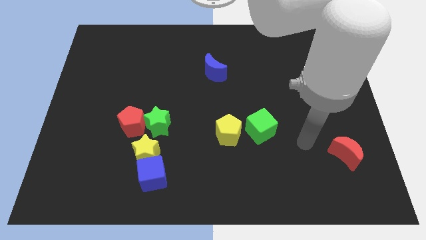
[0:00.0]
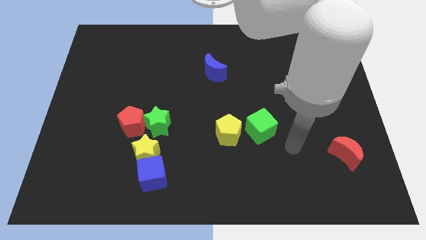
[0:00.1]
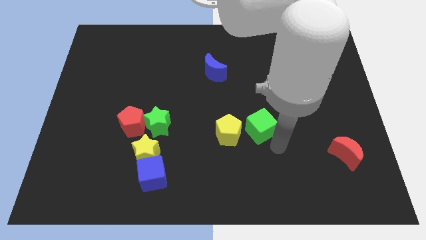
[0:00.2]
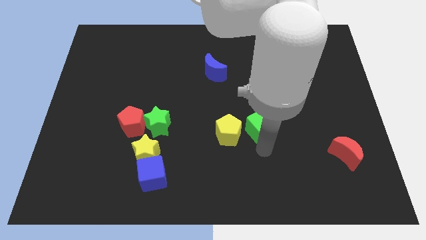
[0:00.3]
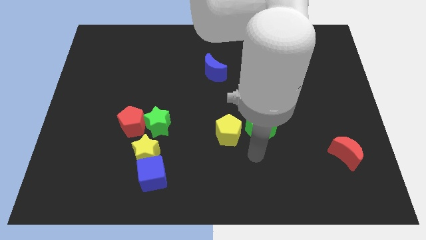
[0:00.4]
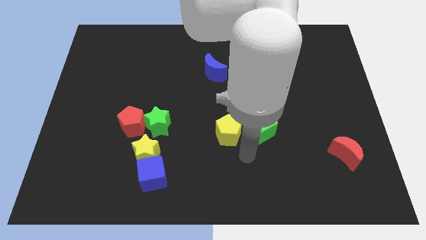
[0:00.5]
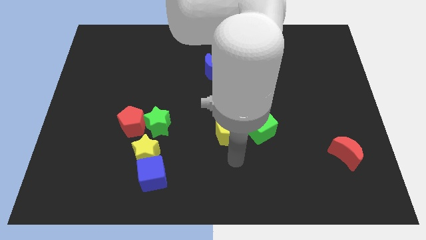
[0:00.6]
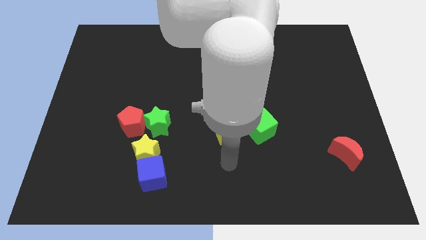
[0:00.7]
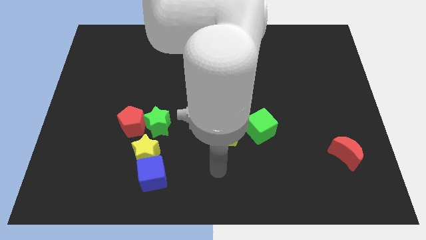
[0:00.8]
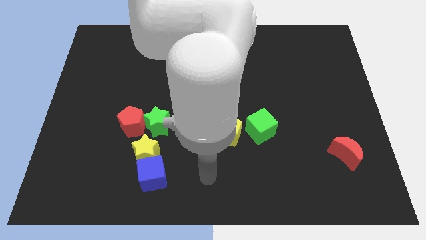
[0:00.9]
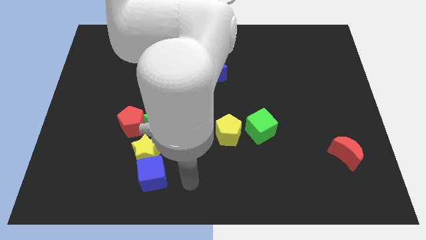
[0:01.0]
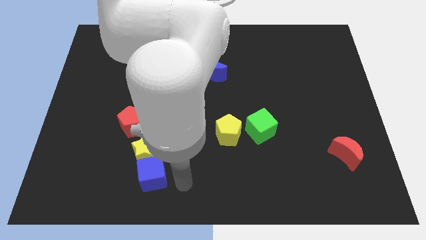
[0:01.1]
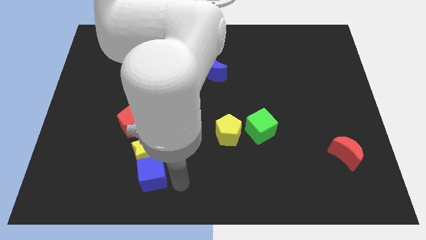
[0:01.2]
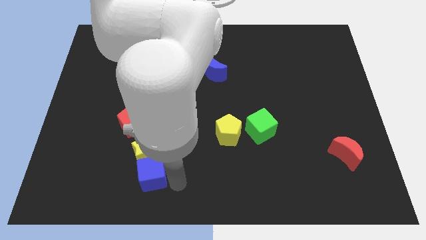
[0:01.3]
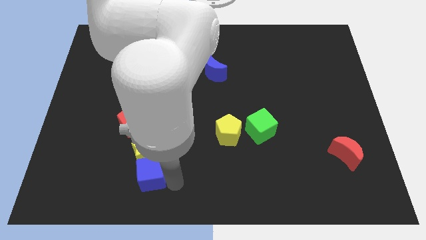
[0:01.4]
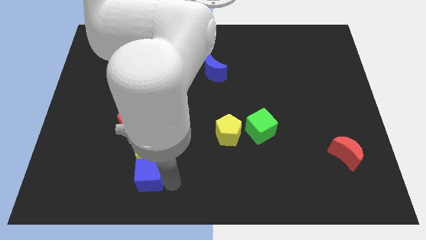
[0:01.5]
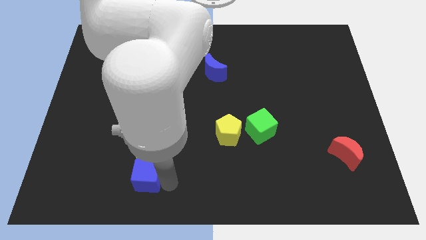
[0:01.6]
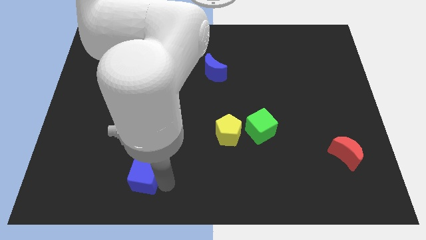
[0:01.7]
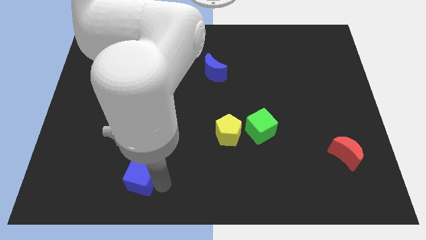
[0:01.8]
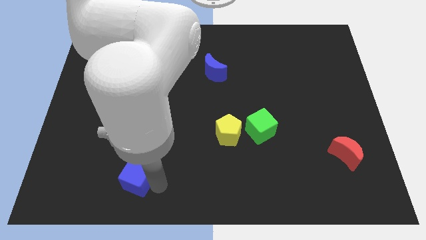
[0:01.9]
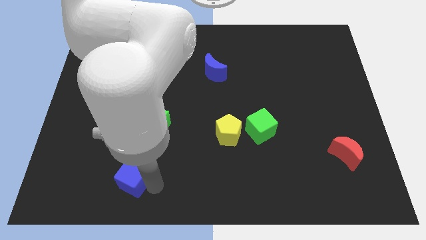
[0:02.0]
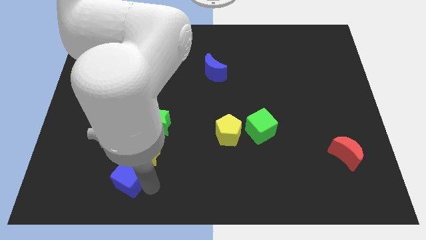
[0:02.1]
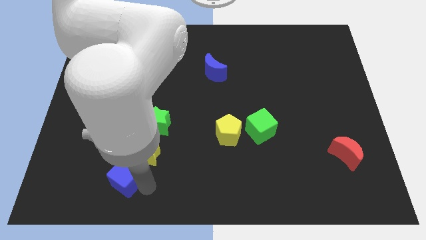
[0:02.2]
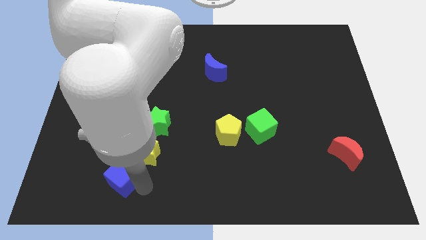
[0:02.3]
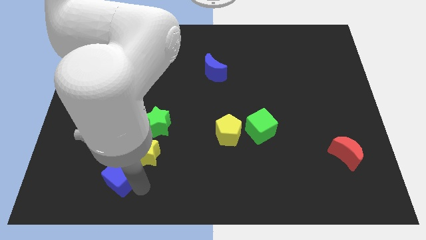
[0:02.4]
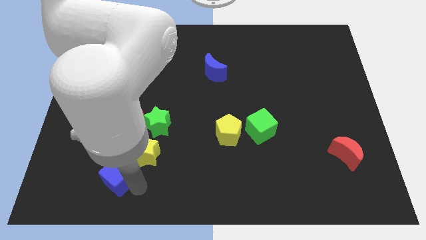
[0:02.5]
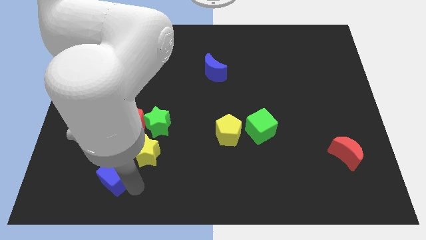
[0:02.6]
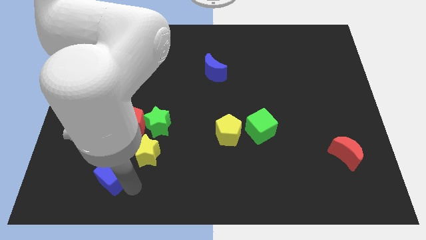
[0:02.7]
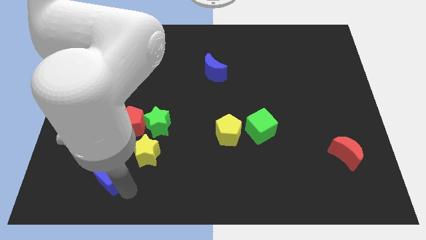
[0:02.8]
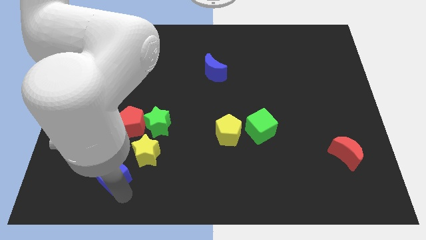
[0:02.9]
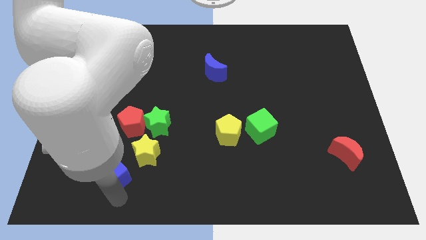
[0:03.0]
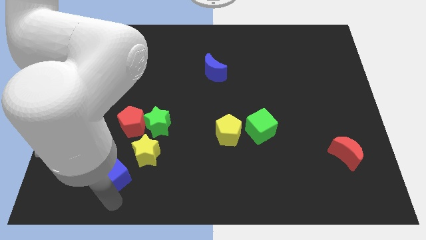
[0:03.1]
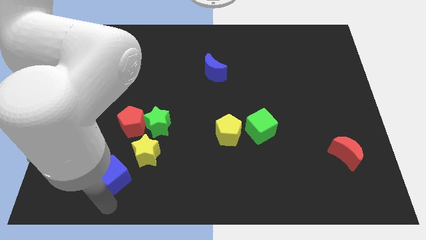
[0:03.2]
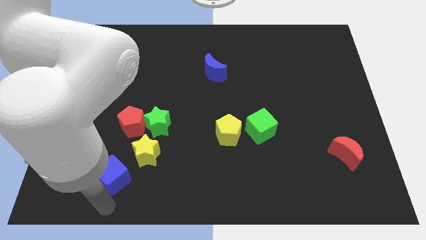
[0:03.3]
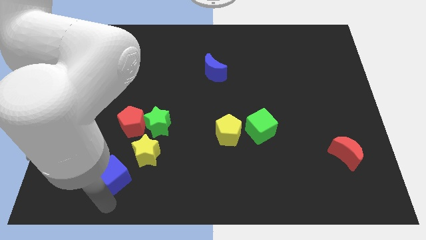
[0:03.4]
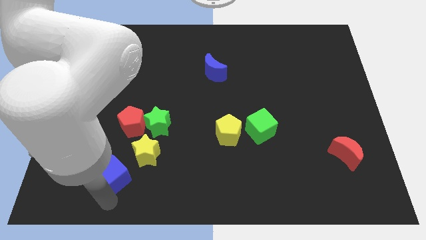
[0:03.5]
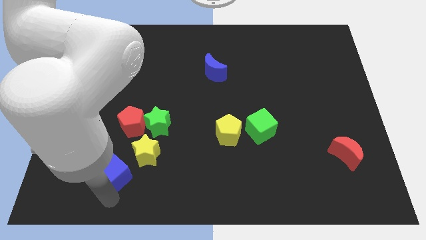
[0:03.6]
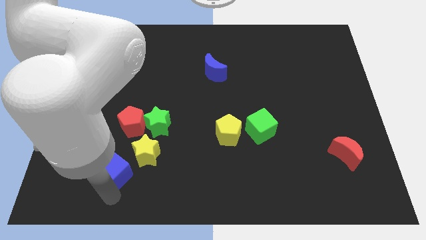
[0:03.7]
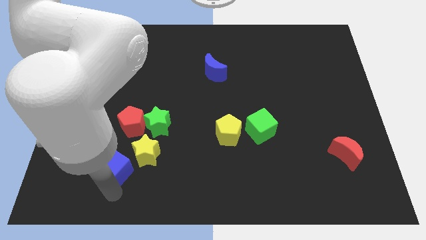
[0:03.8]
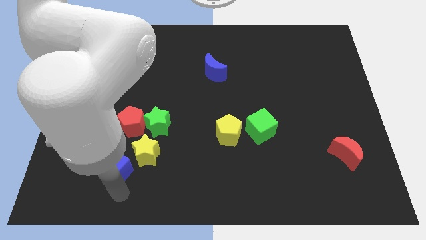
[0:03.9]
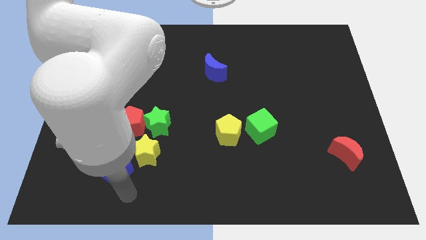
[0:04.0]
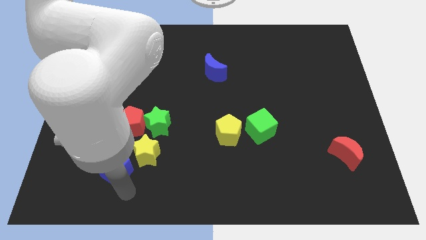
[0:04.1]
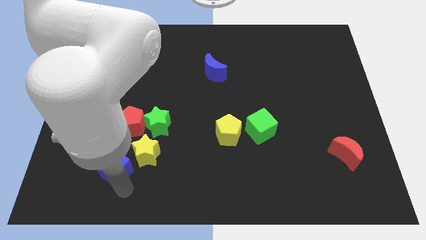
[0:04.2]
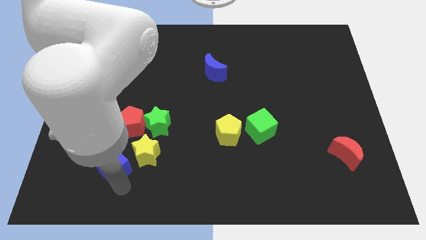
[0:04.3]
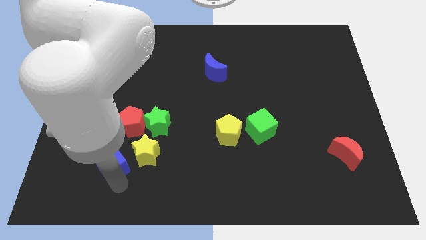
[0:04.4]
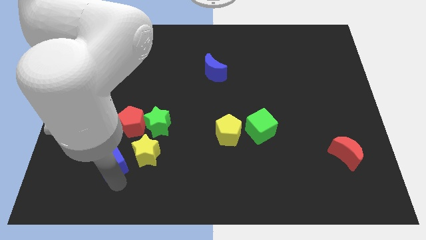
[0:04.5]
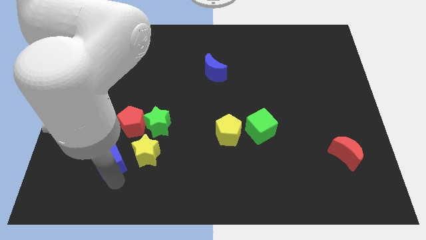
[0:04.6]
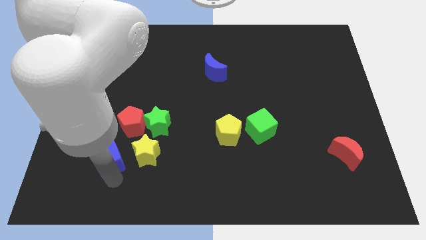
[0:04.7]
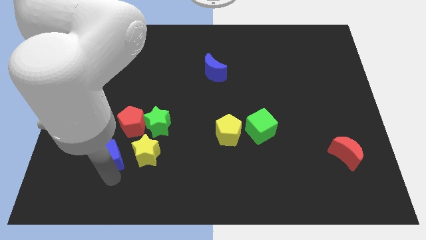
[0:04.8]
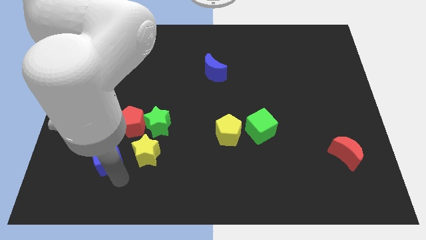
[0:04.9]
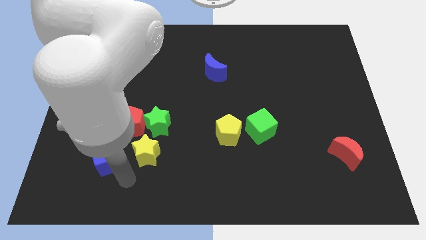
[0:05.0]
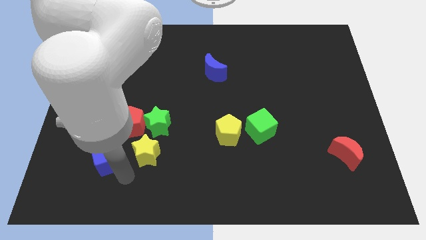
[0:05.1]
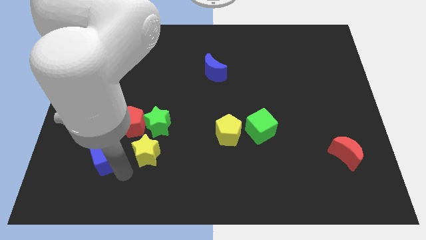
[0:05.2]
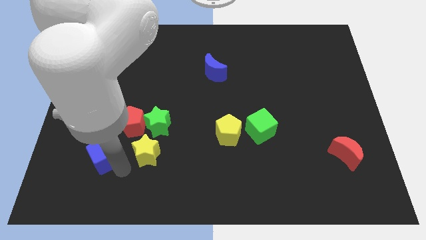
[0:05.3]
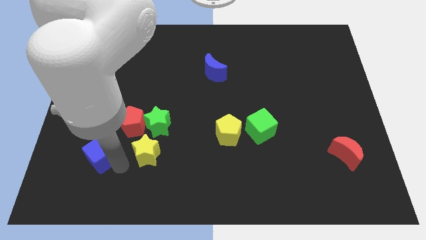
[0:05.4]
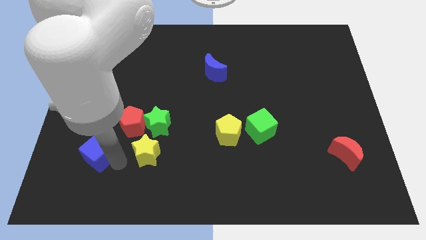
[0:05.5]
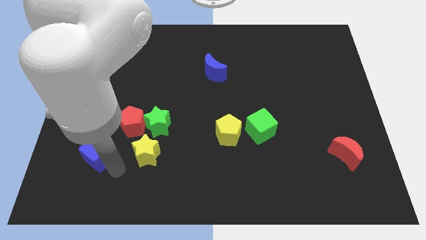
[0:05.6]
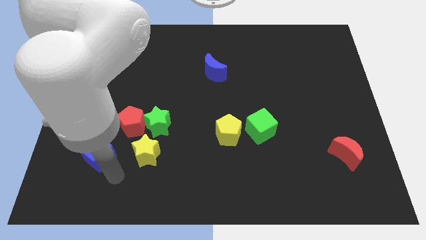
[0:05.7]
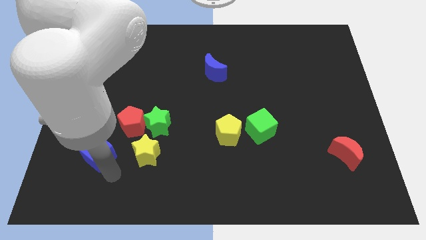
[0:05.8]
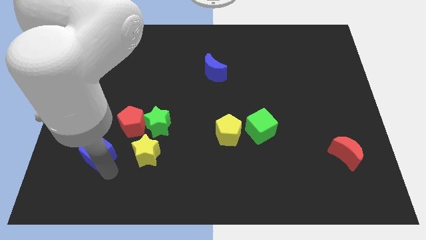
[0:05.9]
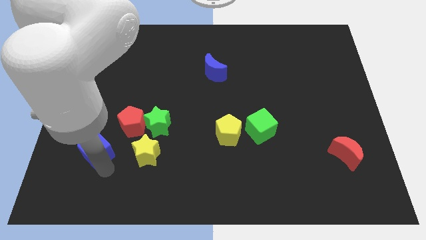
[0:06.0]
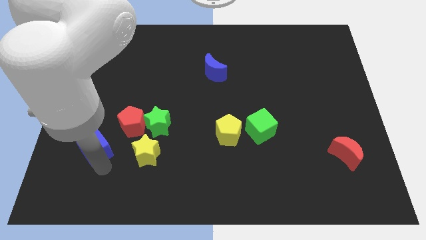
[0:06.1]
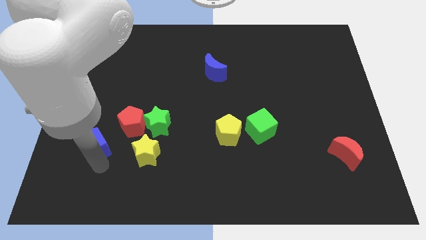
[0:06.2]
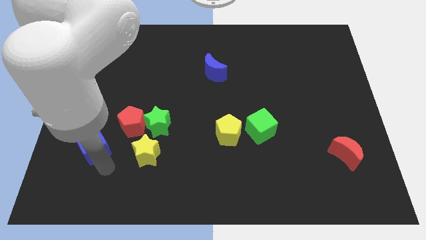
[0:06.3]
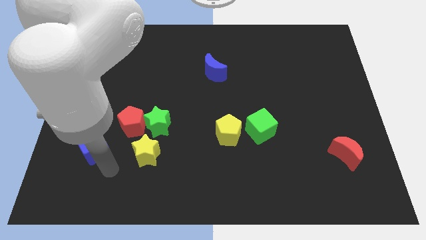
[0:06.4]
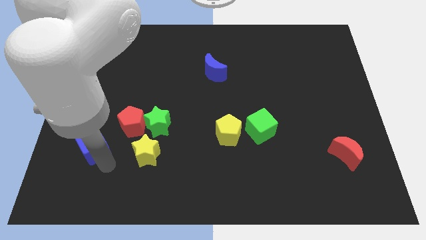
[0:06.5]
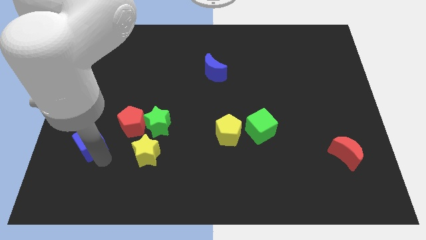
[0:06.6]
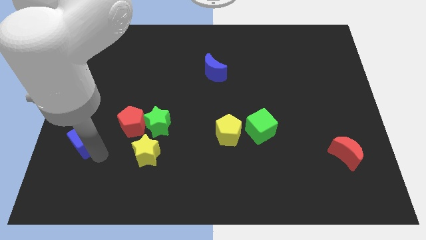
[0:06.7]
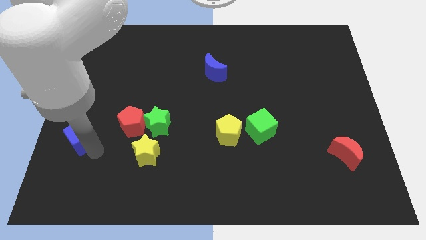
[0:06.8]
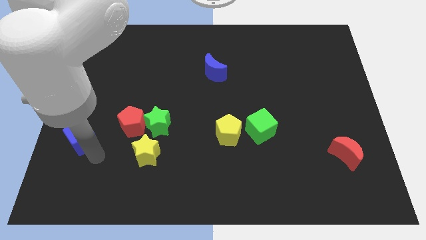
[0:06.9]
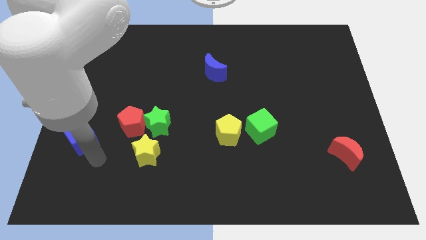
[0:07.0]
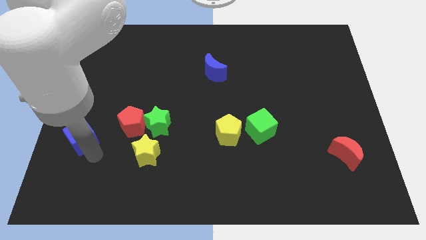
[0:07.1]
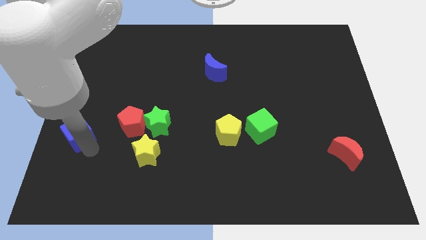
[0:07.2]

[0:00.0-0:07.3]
move the blue cube to the left side of the board
